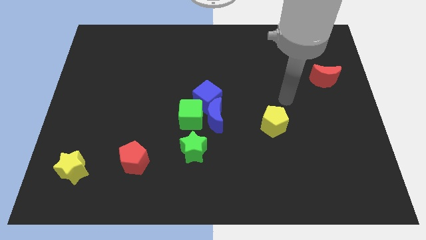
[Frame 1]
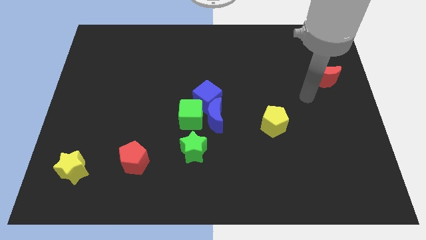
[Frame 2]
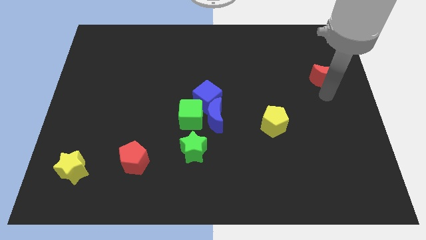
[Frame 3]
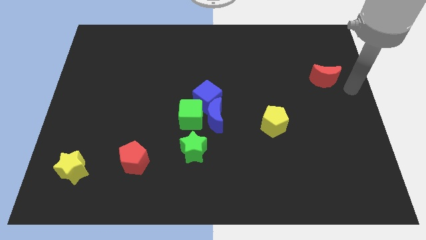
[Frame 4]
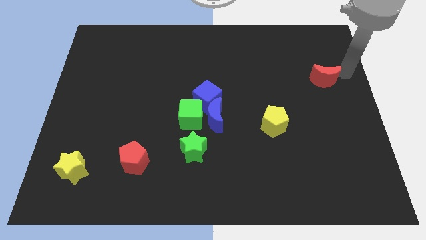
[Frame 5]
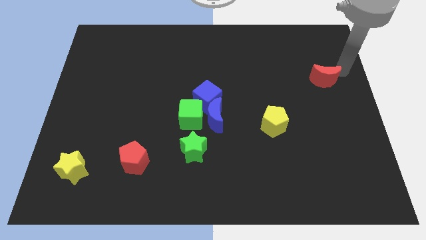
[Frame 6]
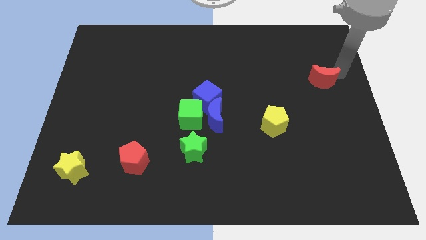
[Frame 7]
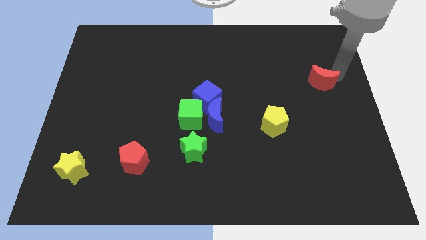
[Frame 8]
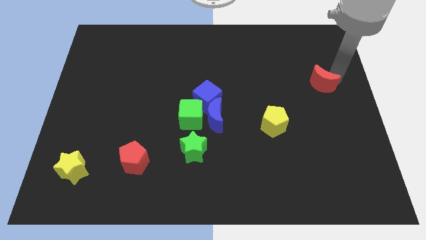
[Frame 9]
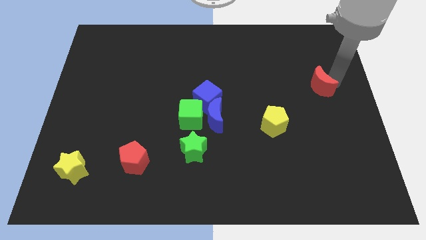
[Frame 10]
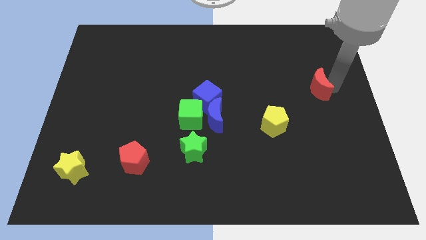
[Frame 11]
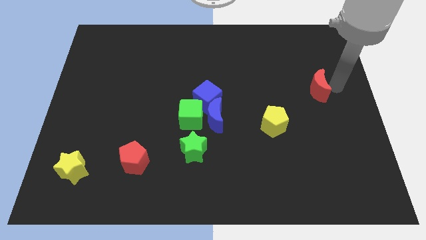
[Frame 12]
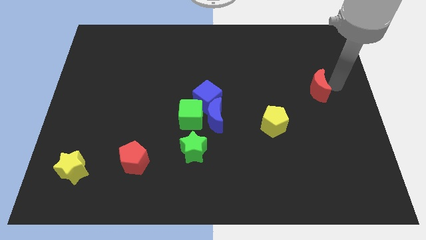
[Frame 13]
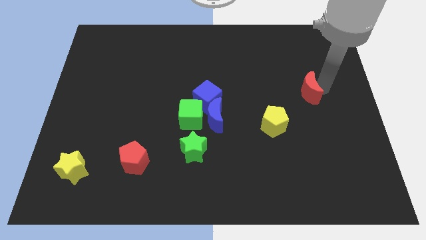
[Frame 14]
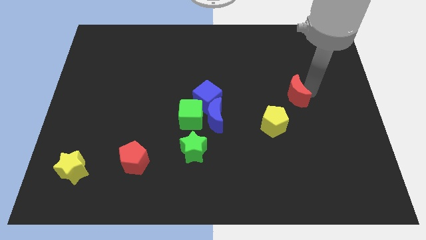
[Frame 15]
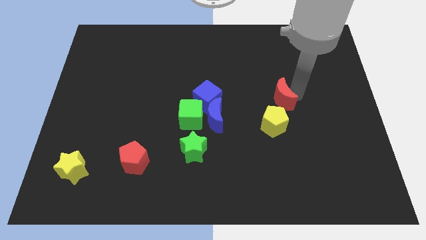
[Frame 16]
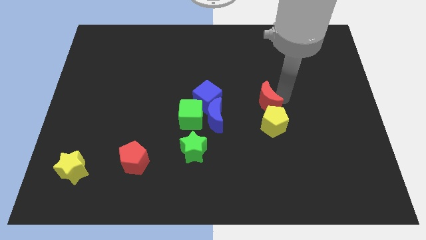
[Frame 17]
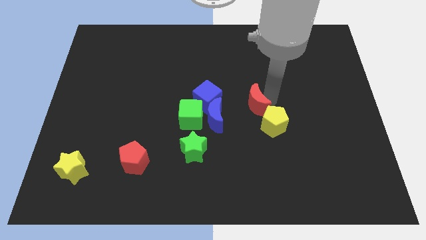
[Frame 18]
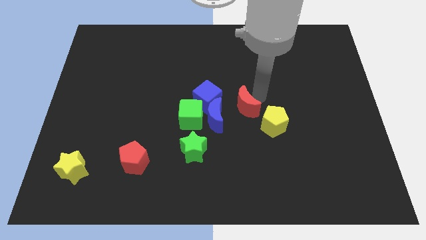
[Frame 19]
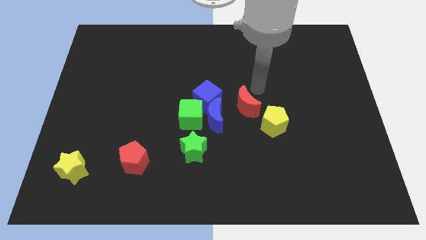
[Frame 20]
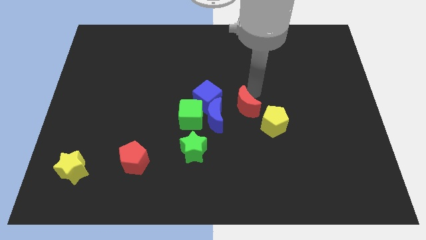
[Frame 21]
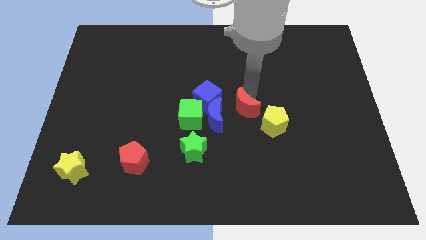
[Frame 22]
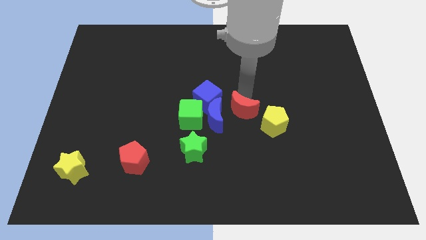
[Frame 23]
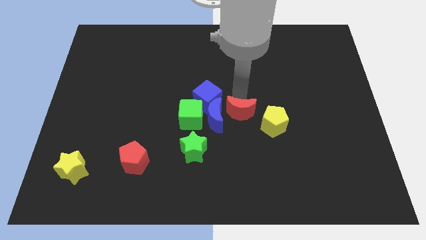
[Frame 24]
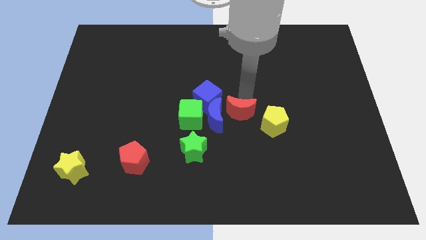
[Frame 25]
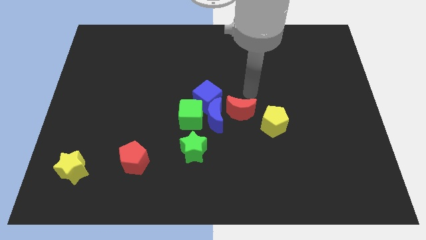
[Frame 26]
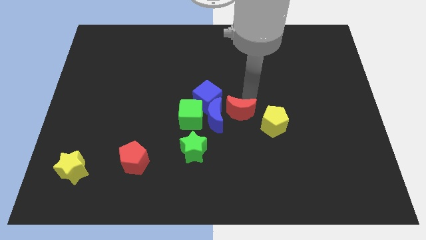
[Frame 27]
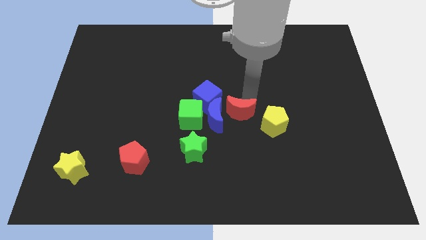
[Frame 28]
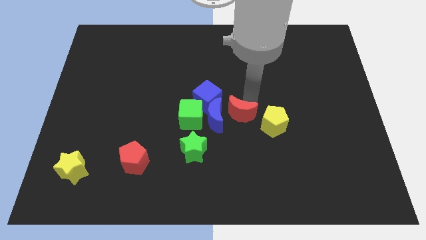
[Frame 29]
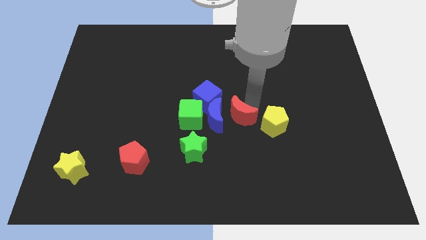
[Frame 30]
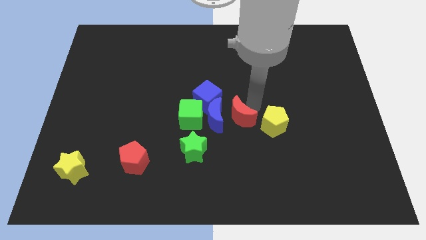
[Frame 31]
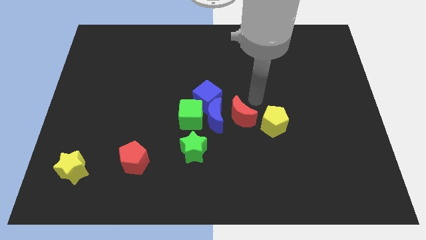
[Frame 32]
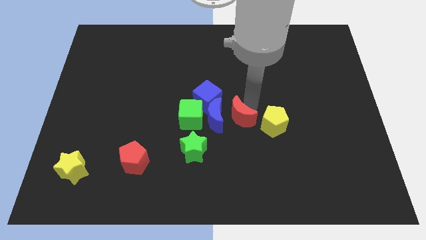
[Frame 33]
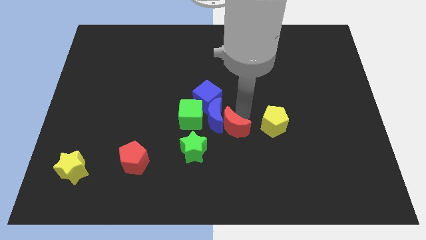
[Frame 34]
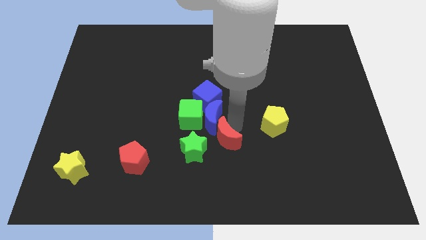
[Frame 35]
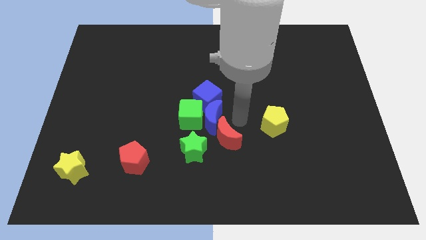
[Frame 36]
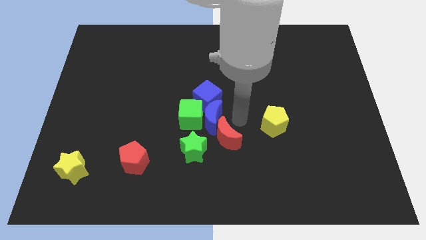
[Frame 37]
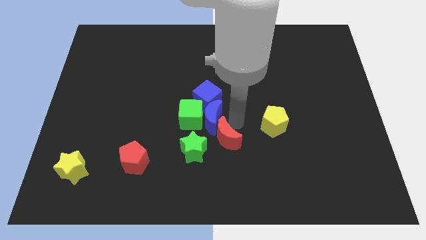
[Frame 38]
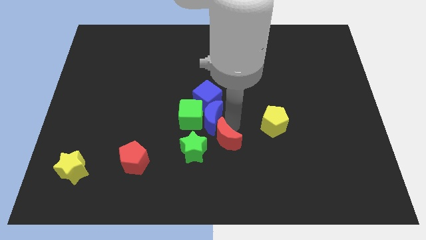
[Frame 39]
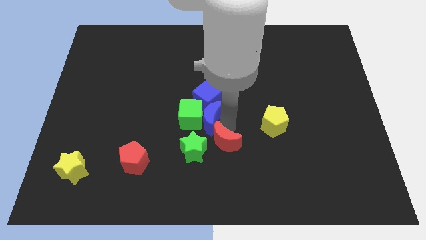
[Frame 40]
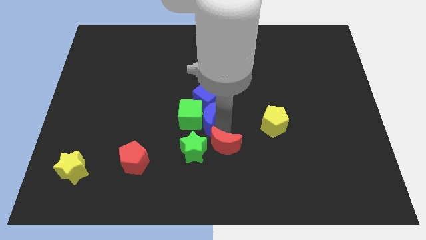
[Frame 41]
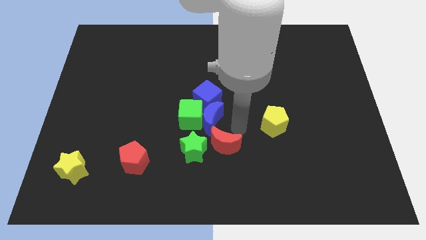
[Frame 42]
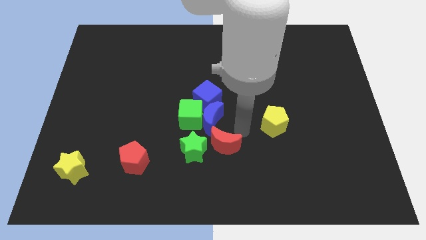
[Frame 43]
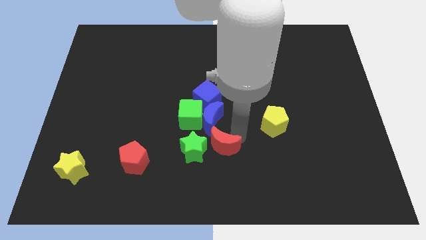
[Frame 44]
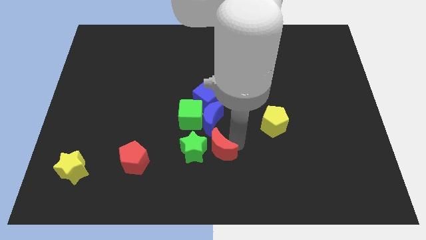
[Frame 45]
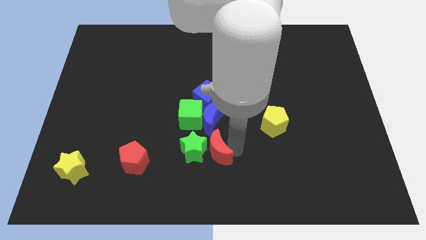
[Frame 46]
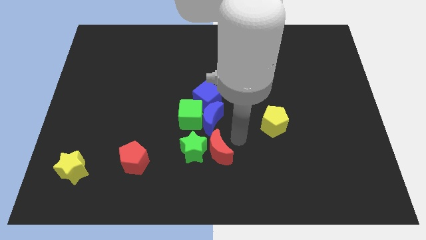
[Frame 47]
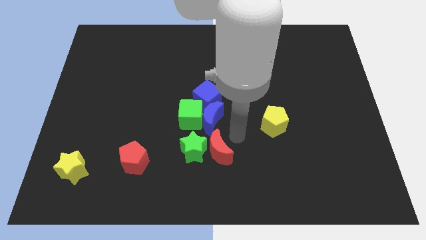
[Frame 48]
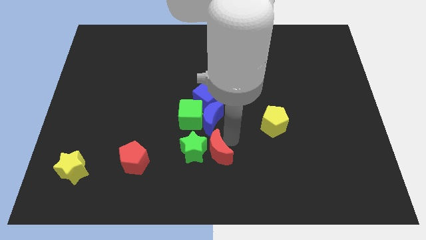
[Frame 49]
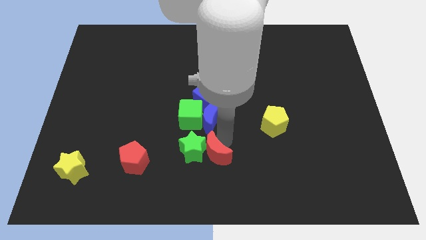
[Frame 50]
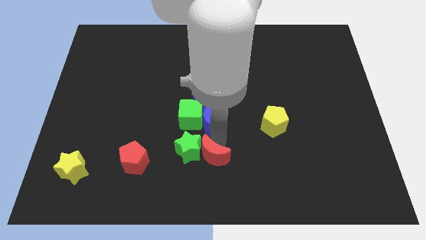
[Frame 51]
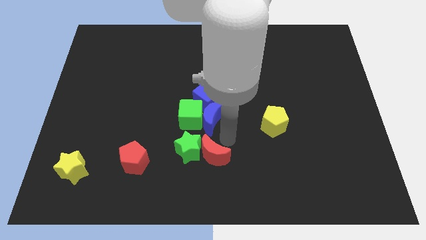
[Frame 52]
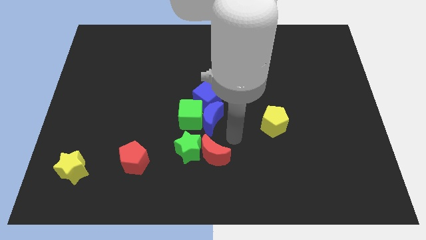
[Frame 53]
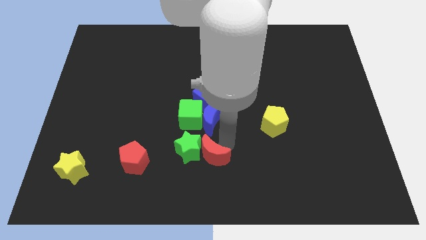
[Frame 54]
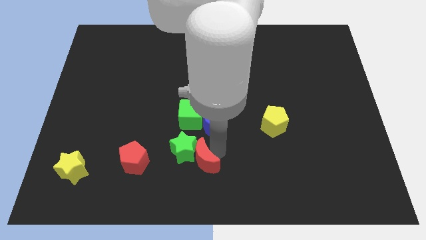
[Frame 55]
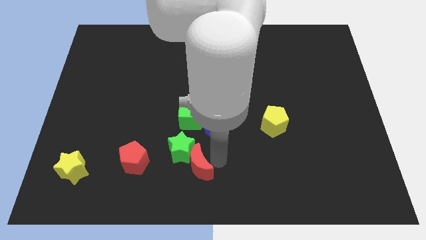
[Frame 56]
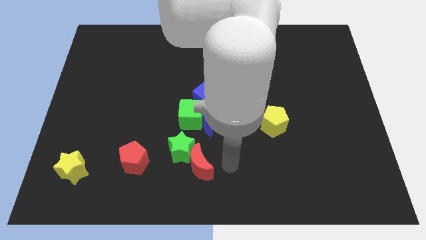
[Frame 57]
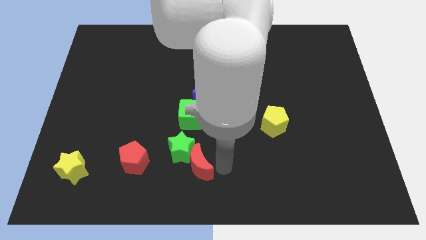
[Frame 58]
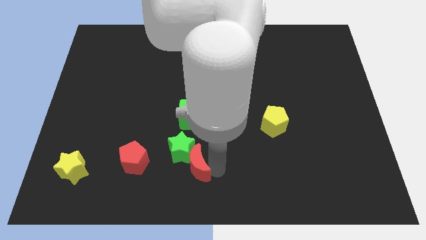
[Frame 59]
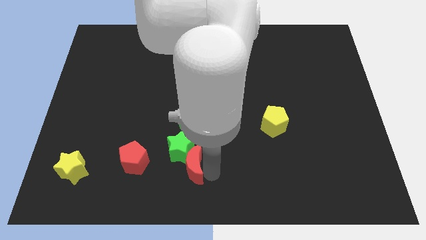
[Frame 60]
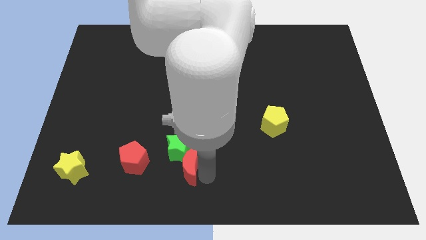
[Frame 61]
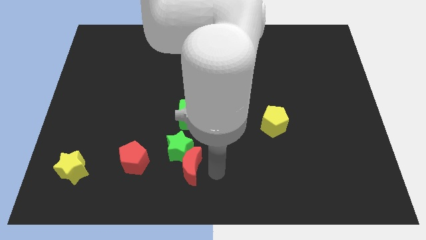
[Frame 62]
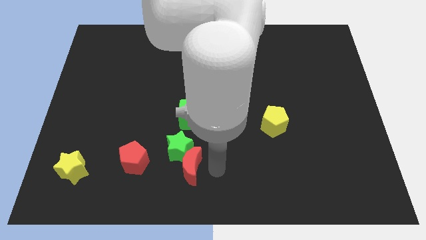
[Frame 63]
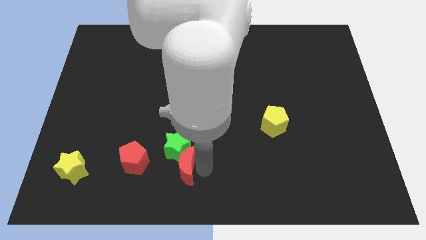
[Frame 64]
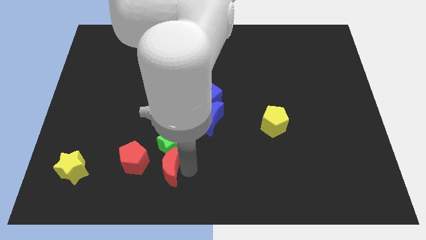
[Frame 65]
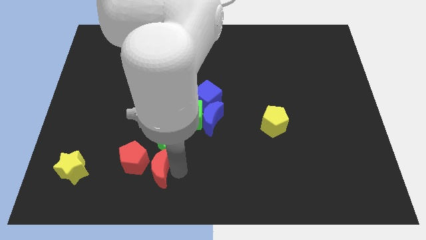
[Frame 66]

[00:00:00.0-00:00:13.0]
push the red moon towards the red pentagon
